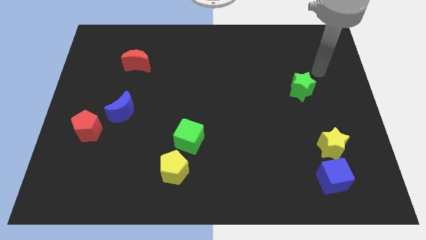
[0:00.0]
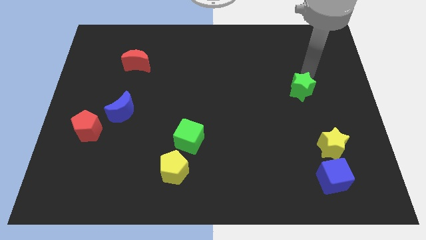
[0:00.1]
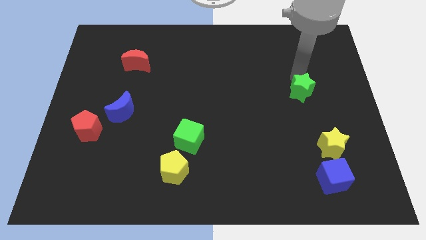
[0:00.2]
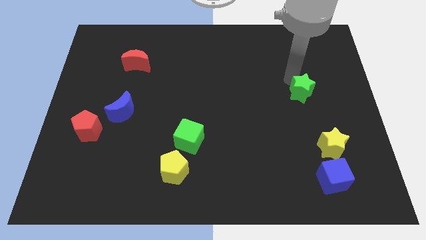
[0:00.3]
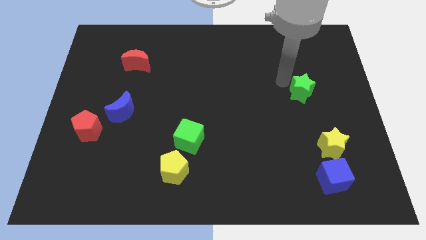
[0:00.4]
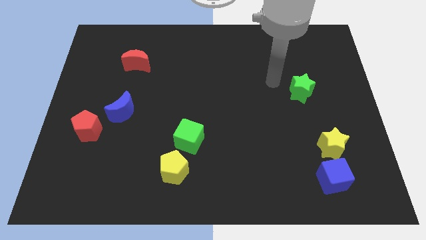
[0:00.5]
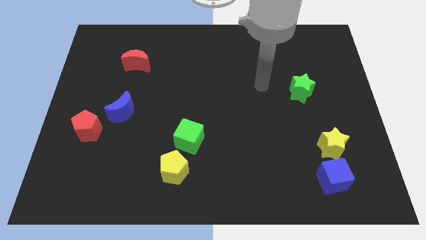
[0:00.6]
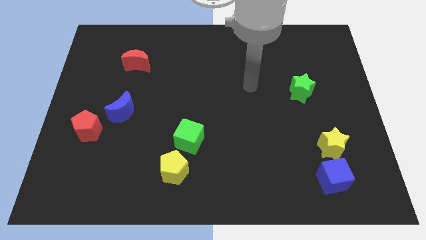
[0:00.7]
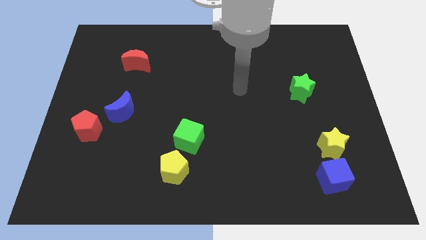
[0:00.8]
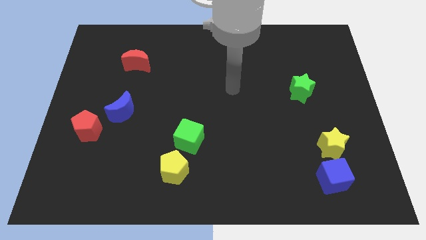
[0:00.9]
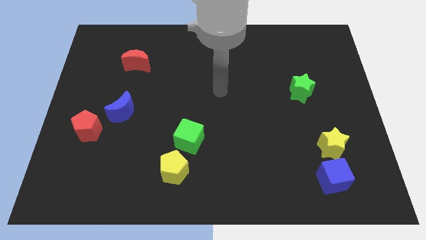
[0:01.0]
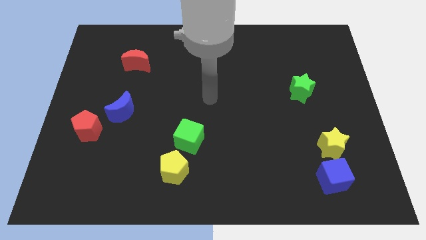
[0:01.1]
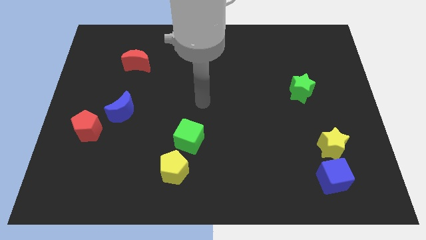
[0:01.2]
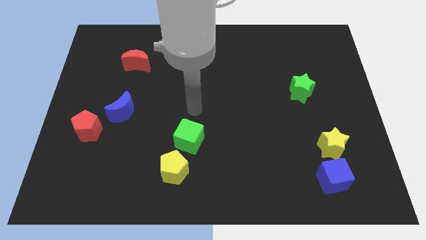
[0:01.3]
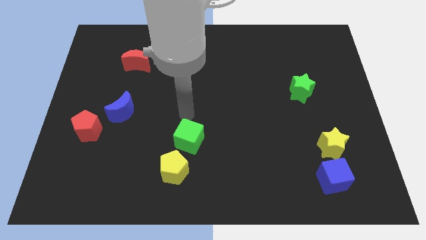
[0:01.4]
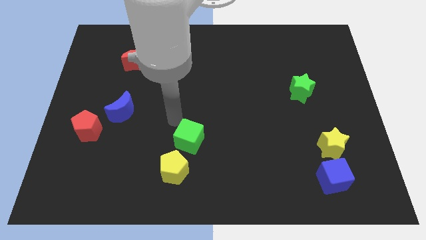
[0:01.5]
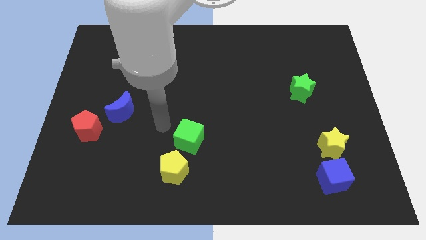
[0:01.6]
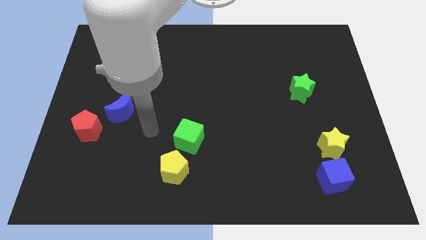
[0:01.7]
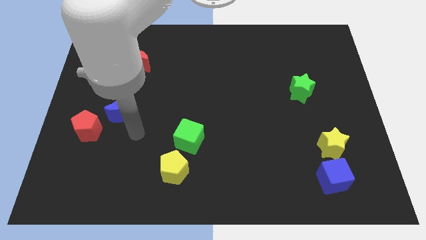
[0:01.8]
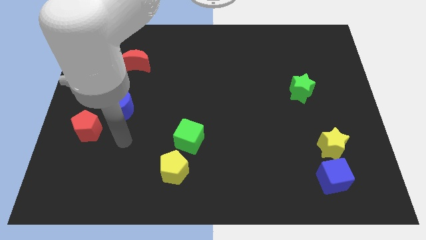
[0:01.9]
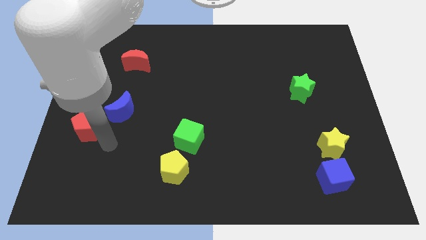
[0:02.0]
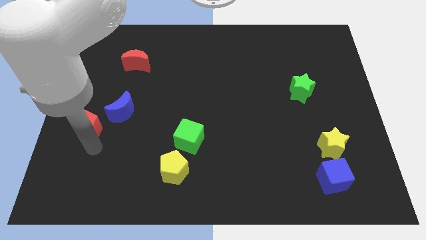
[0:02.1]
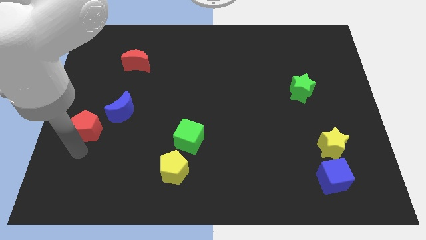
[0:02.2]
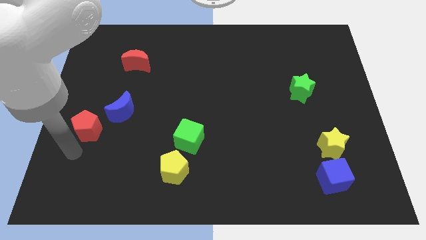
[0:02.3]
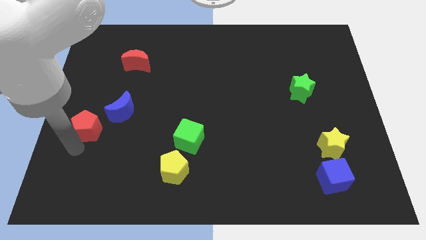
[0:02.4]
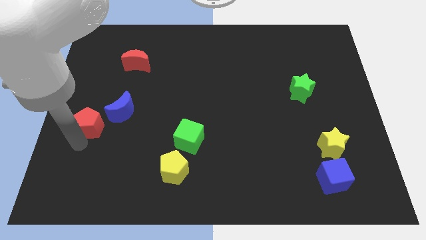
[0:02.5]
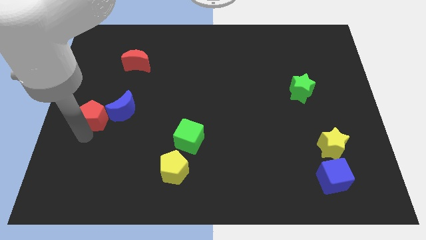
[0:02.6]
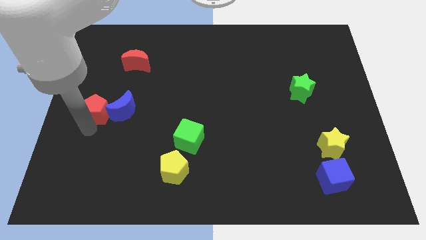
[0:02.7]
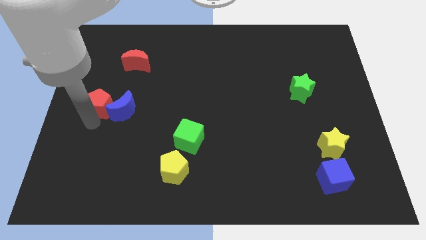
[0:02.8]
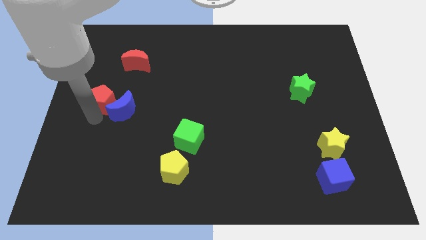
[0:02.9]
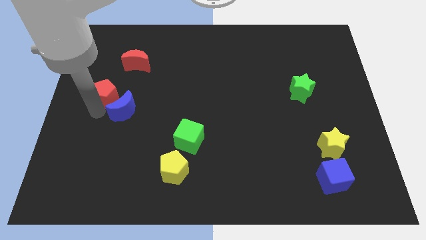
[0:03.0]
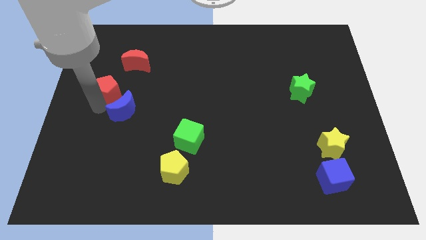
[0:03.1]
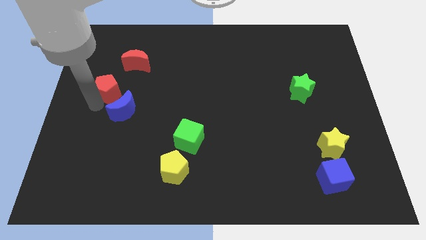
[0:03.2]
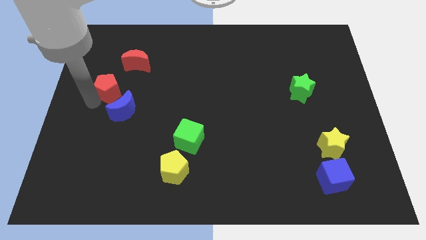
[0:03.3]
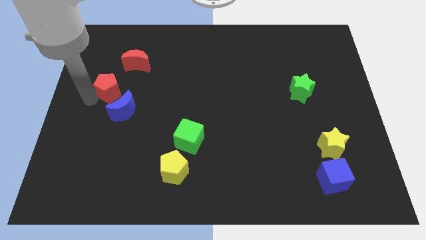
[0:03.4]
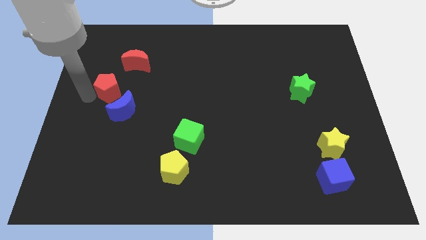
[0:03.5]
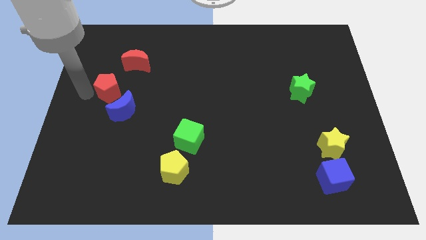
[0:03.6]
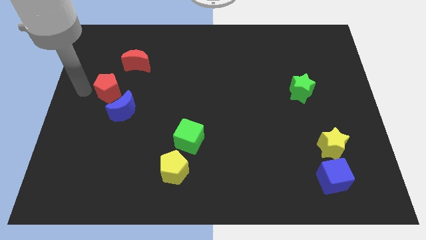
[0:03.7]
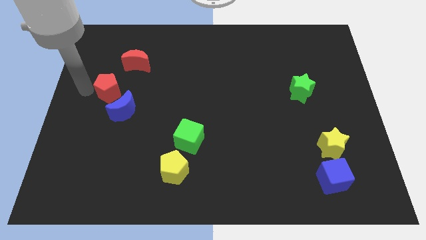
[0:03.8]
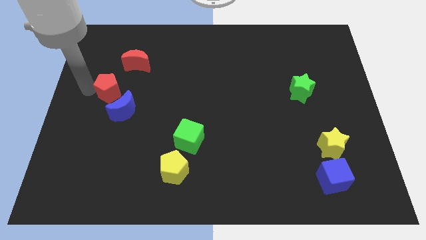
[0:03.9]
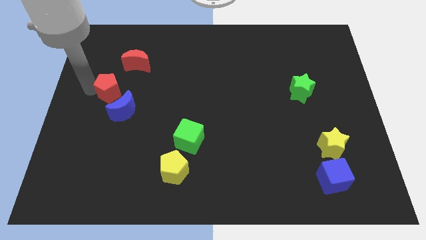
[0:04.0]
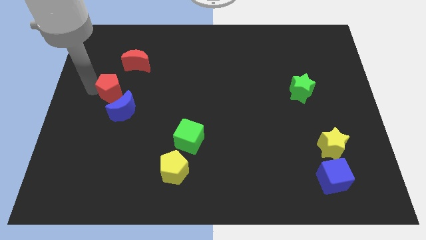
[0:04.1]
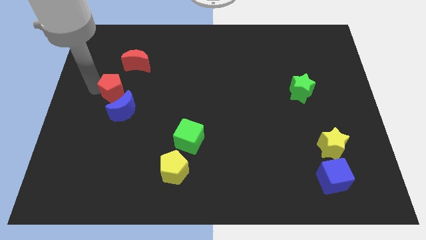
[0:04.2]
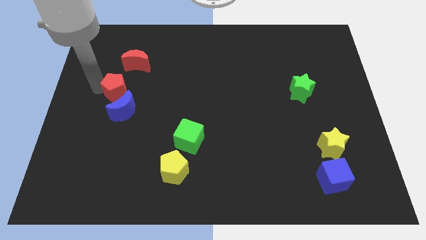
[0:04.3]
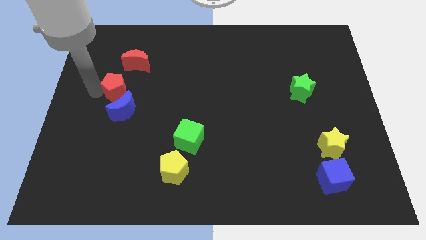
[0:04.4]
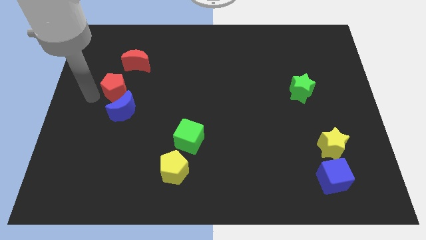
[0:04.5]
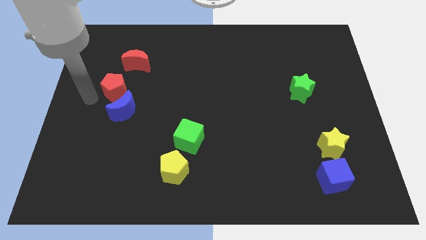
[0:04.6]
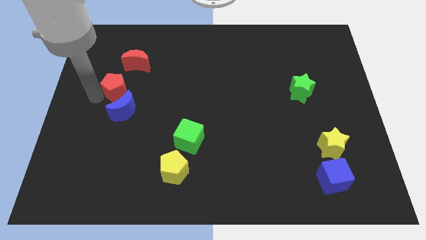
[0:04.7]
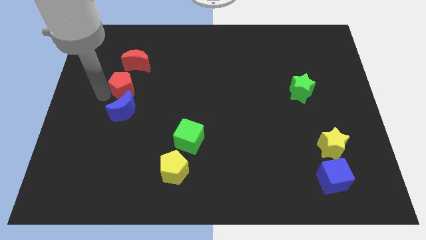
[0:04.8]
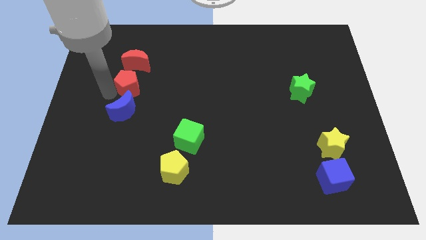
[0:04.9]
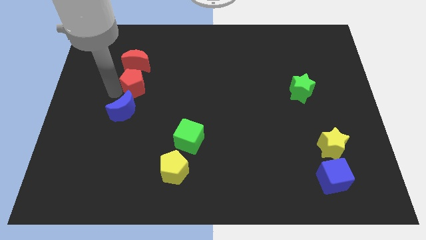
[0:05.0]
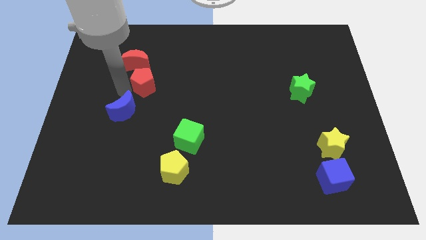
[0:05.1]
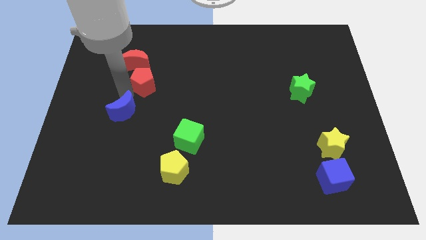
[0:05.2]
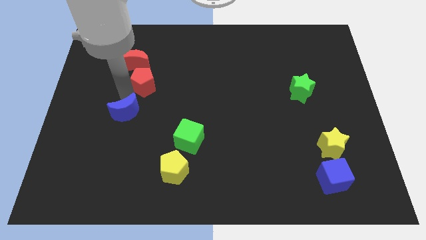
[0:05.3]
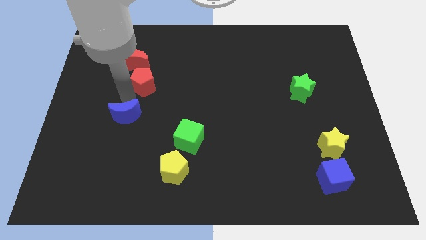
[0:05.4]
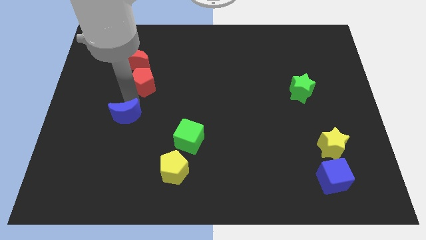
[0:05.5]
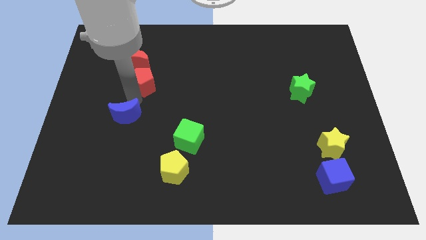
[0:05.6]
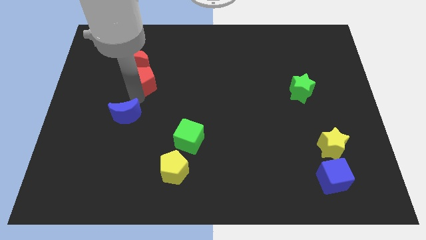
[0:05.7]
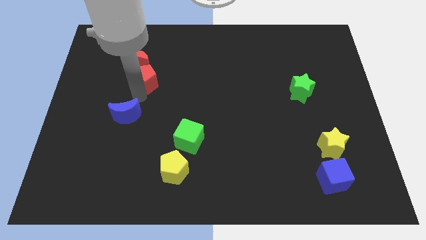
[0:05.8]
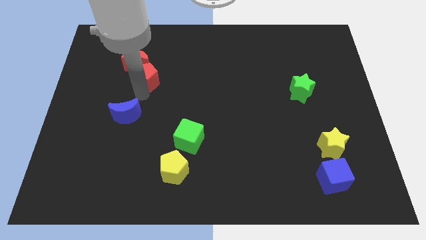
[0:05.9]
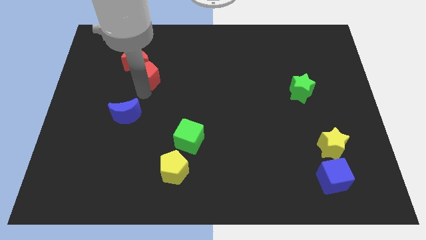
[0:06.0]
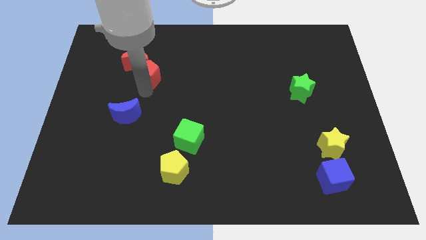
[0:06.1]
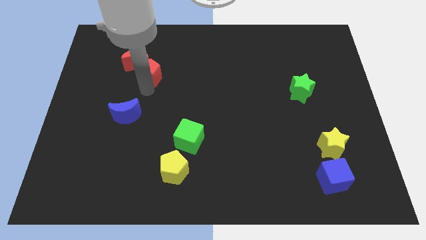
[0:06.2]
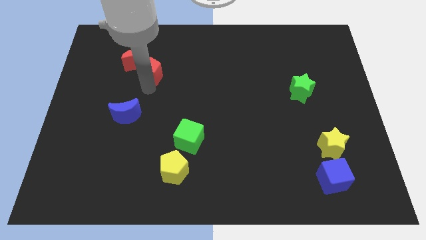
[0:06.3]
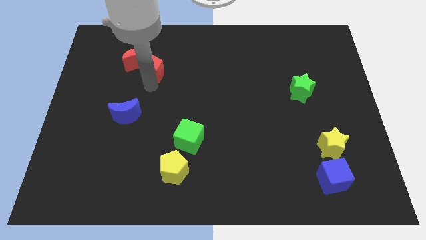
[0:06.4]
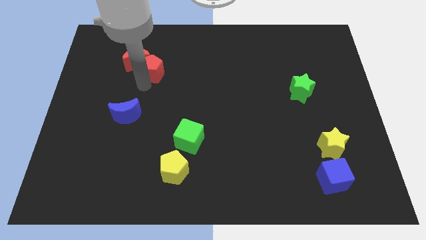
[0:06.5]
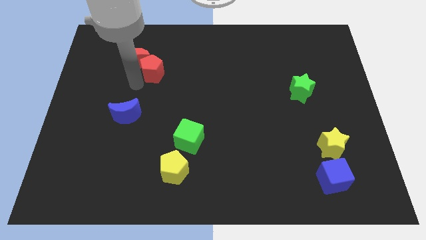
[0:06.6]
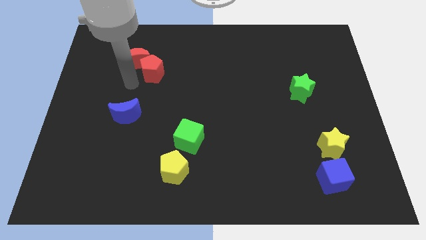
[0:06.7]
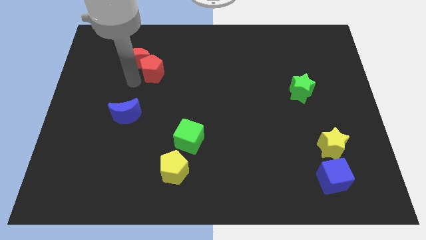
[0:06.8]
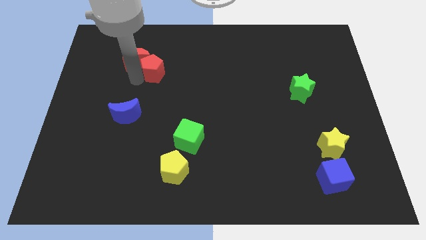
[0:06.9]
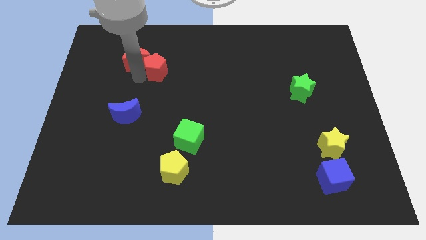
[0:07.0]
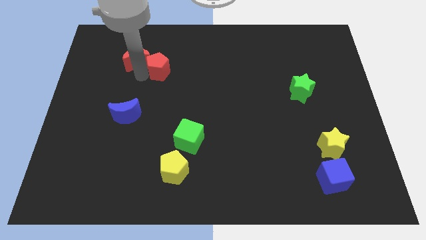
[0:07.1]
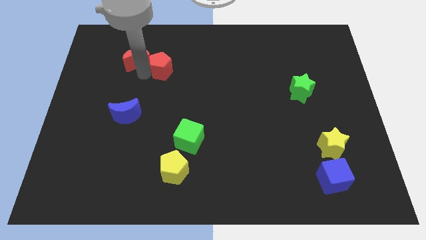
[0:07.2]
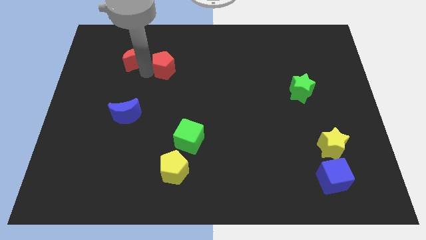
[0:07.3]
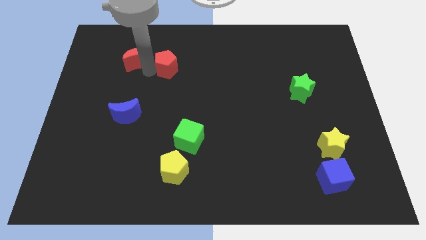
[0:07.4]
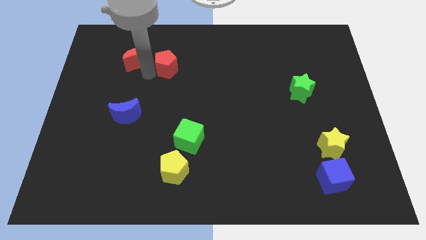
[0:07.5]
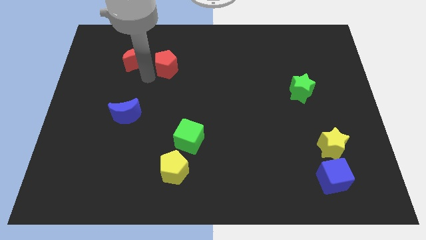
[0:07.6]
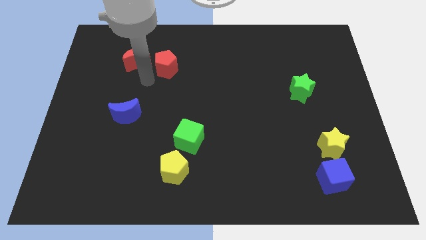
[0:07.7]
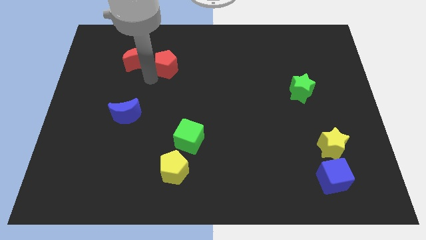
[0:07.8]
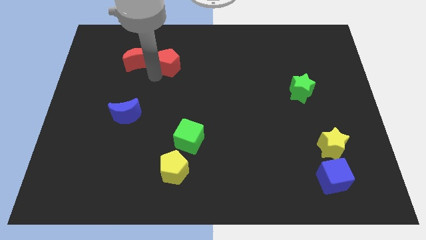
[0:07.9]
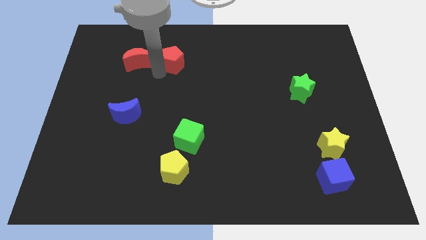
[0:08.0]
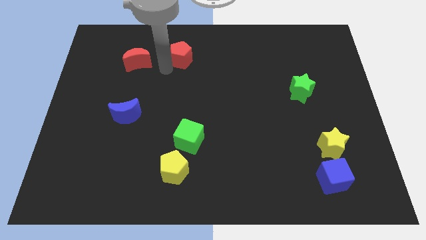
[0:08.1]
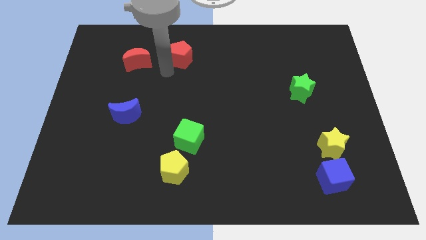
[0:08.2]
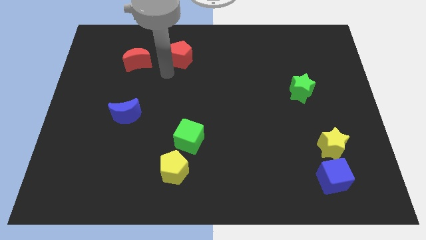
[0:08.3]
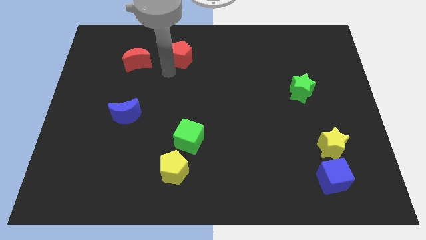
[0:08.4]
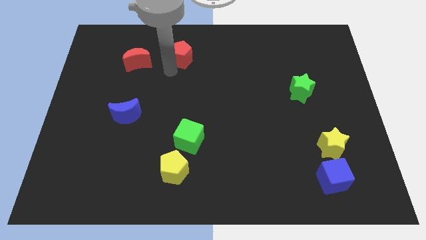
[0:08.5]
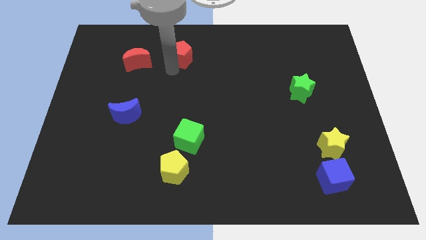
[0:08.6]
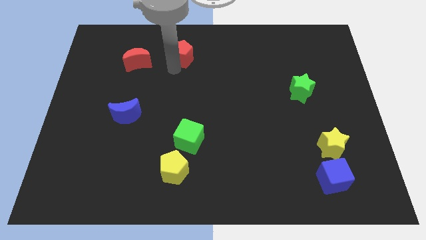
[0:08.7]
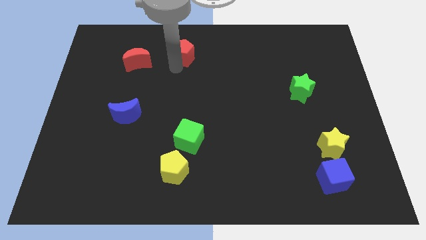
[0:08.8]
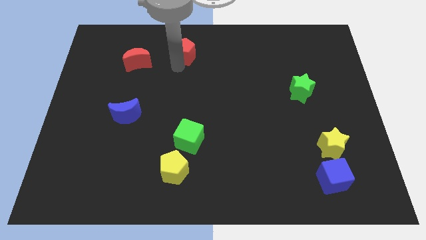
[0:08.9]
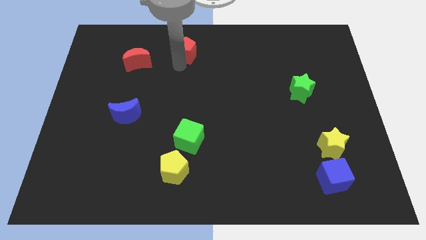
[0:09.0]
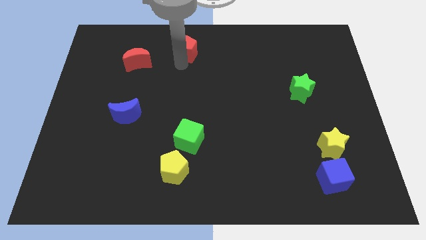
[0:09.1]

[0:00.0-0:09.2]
push the red pentagon to the top side
